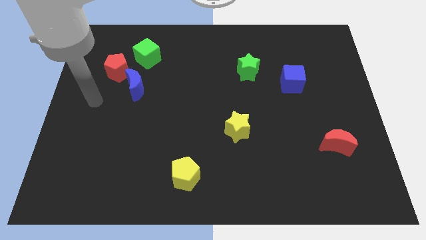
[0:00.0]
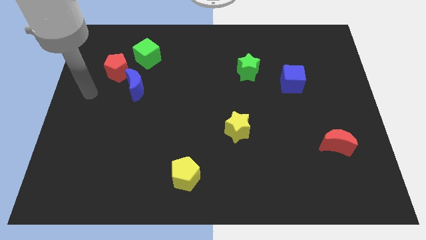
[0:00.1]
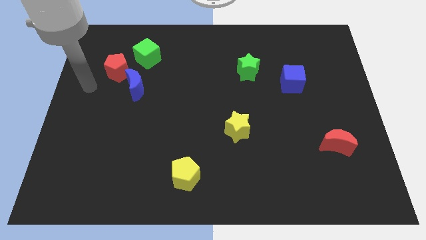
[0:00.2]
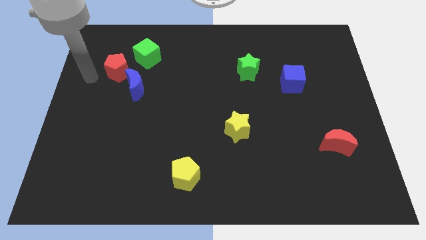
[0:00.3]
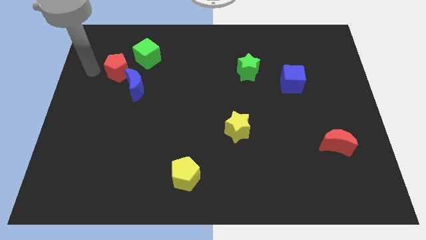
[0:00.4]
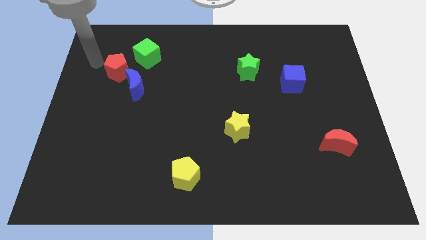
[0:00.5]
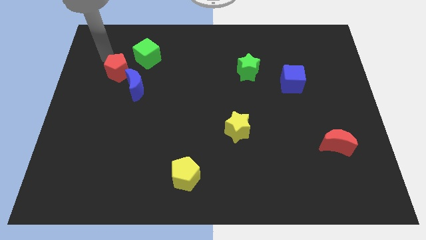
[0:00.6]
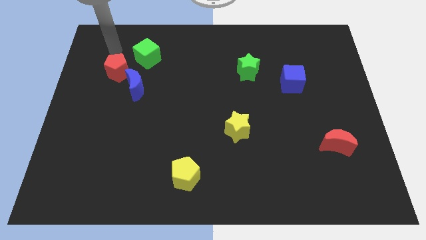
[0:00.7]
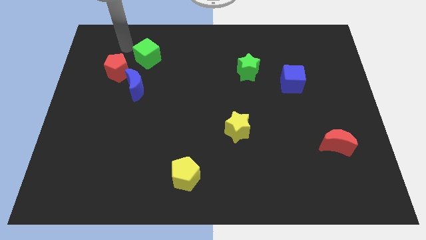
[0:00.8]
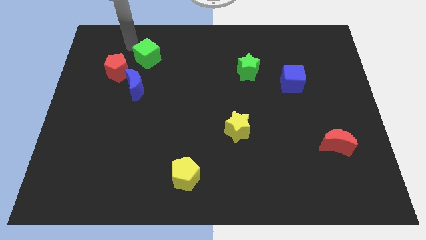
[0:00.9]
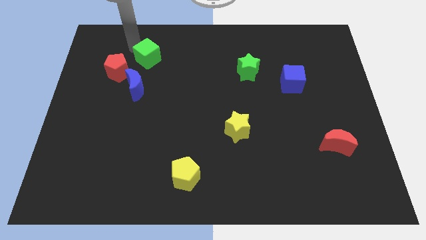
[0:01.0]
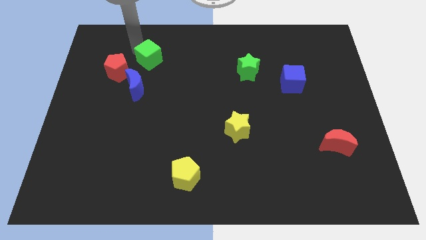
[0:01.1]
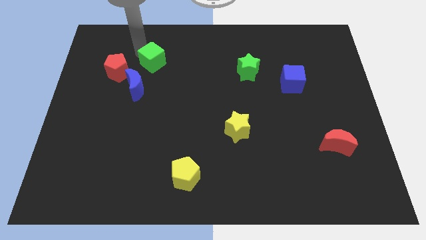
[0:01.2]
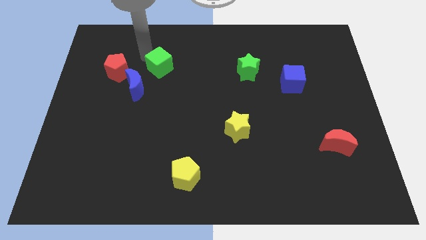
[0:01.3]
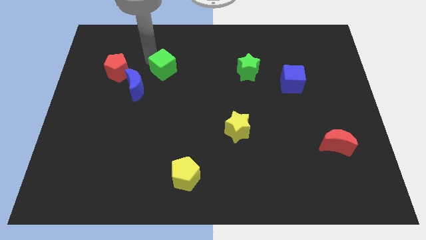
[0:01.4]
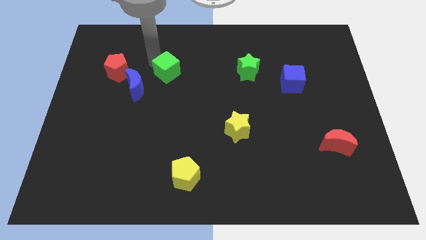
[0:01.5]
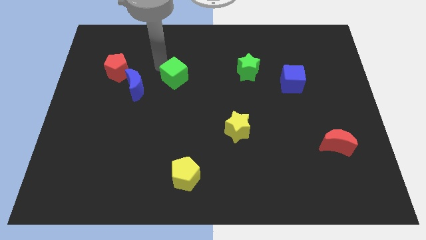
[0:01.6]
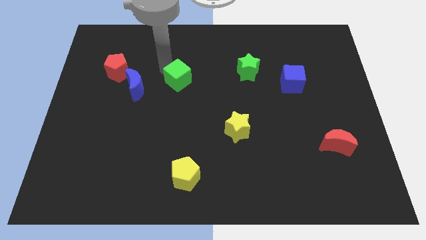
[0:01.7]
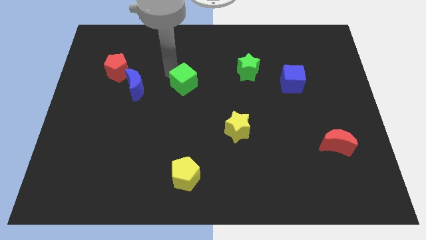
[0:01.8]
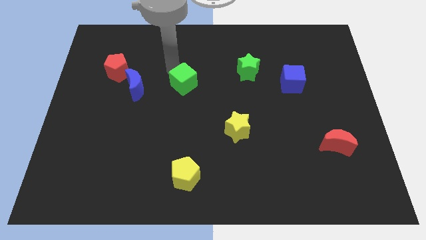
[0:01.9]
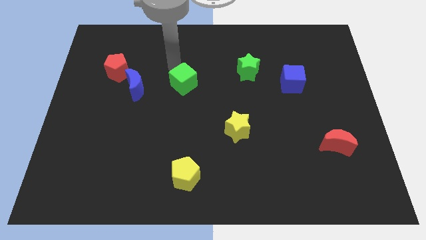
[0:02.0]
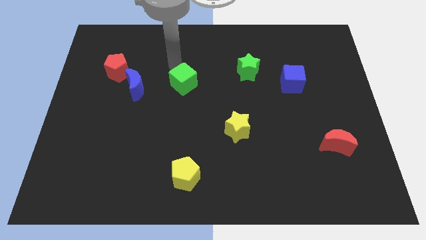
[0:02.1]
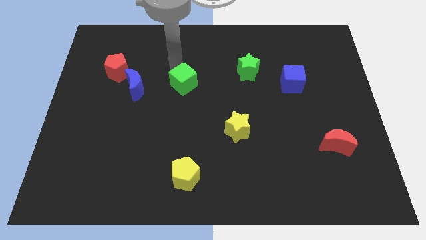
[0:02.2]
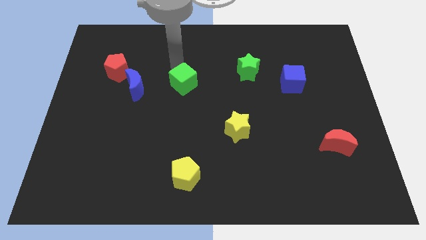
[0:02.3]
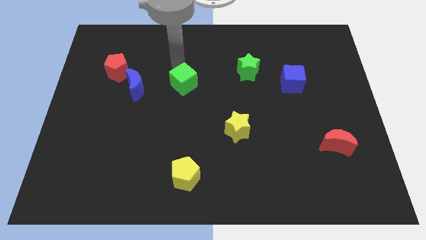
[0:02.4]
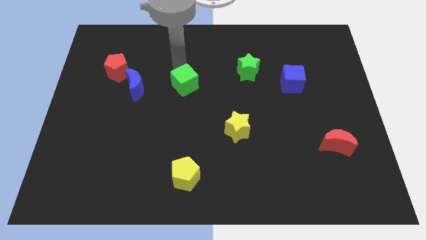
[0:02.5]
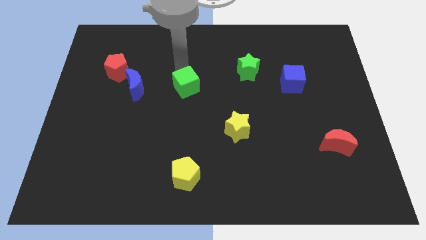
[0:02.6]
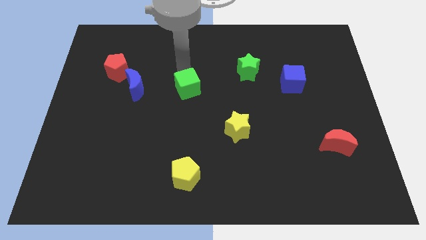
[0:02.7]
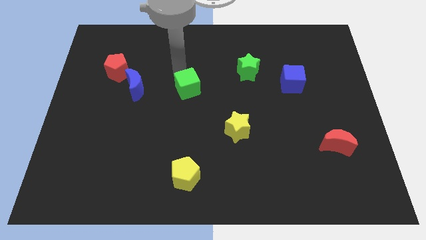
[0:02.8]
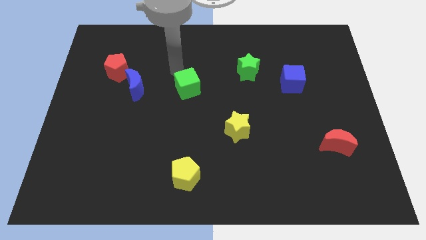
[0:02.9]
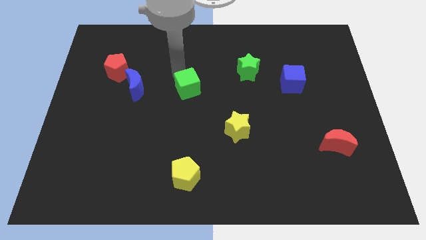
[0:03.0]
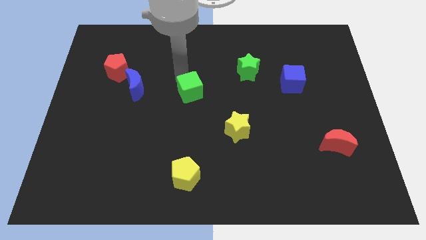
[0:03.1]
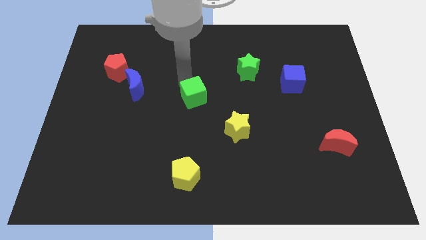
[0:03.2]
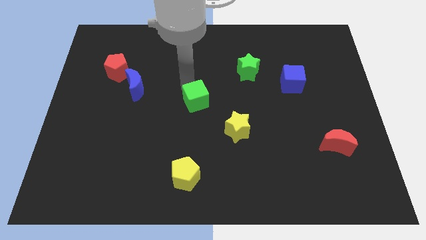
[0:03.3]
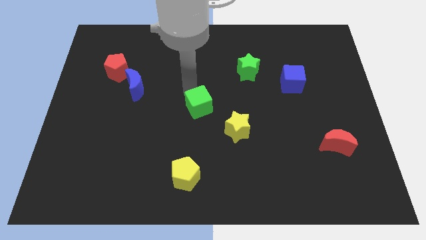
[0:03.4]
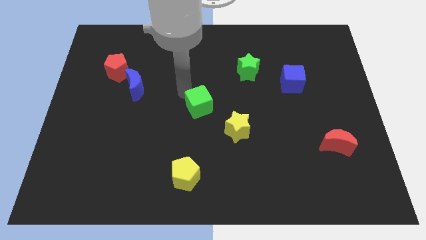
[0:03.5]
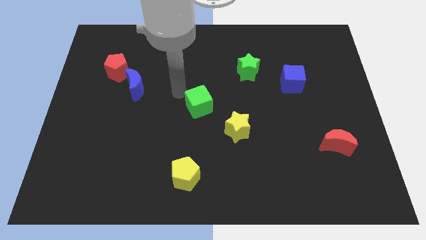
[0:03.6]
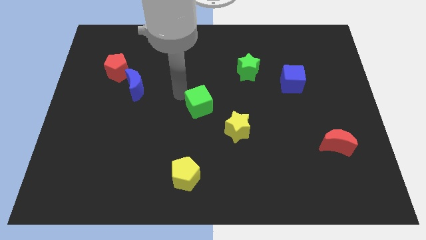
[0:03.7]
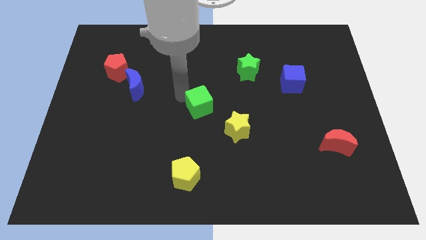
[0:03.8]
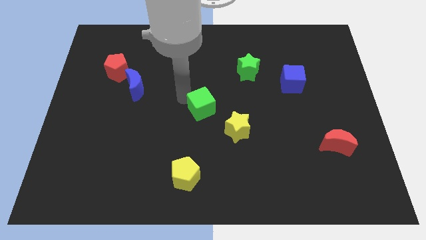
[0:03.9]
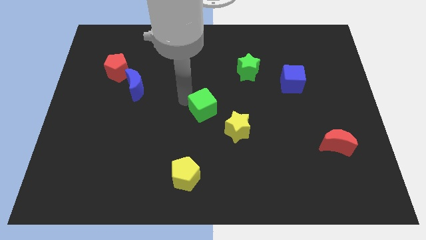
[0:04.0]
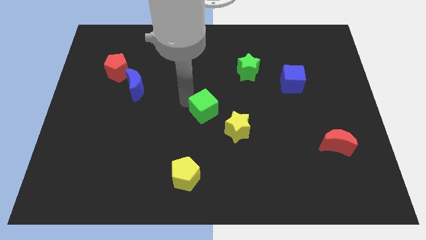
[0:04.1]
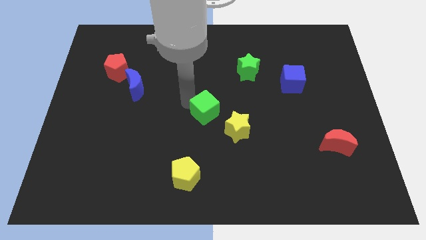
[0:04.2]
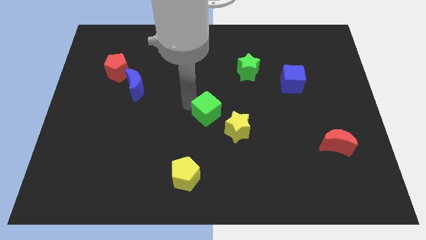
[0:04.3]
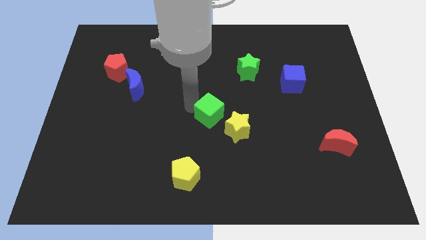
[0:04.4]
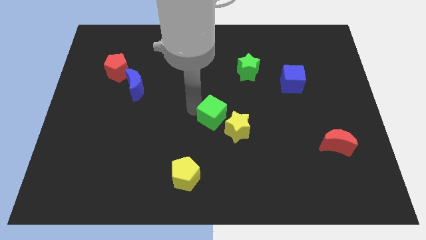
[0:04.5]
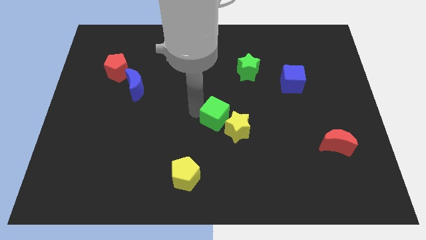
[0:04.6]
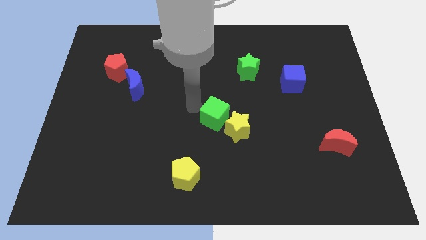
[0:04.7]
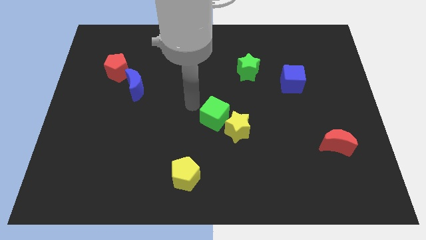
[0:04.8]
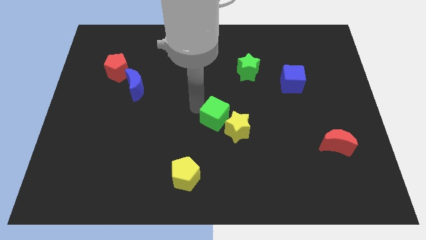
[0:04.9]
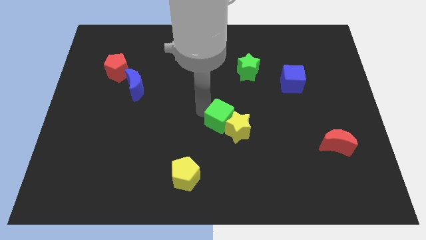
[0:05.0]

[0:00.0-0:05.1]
push the green cube next to the yellow star

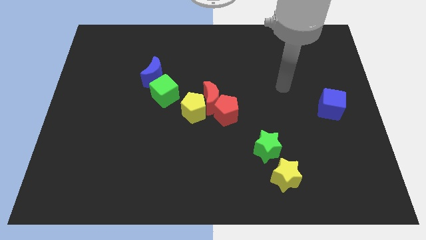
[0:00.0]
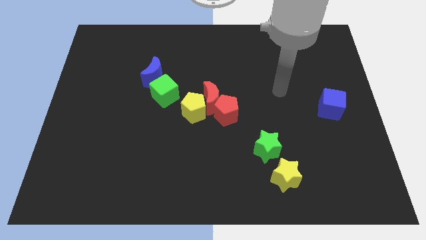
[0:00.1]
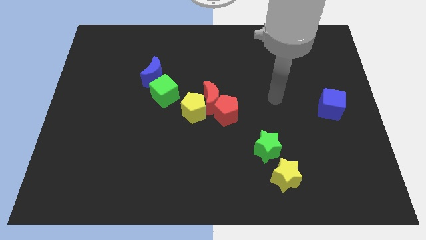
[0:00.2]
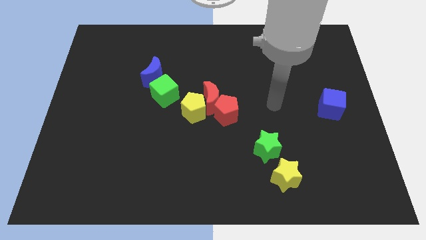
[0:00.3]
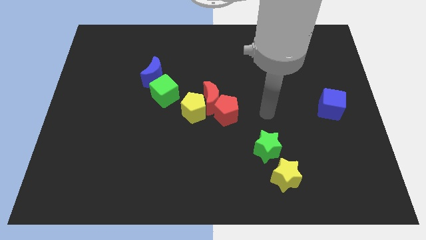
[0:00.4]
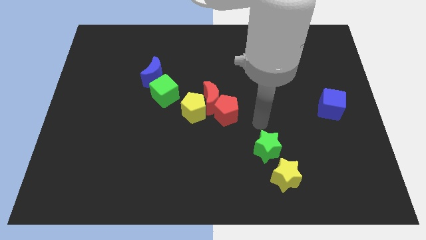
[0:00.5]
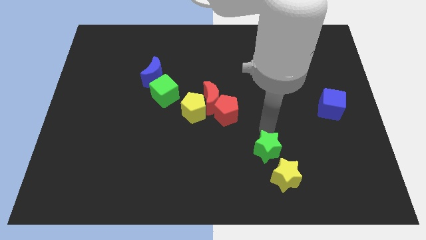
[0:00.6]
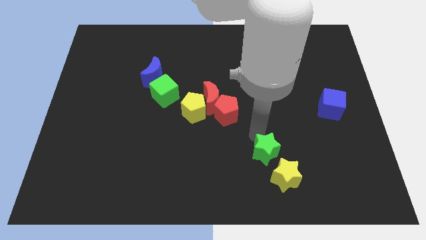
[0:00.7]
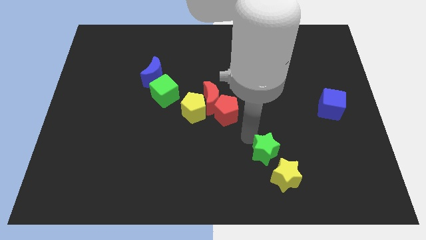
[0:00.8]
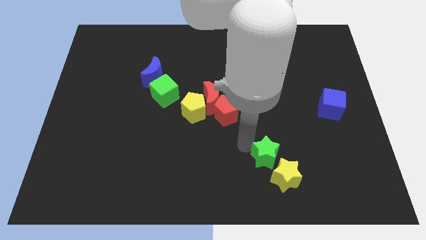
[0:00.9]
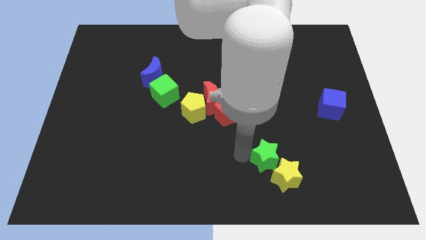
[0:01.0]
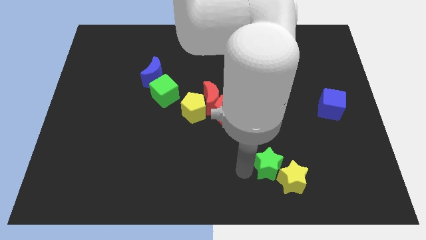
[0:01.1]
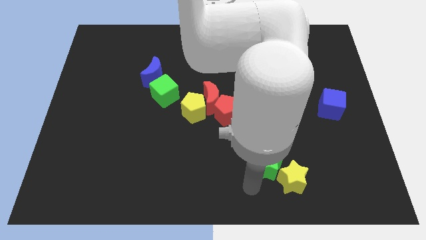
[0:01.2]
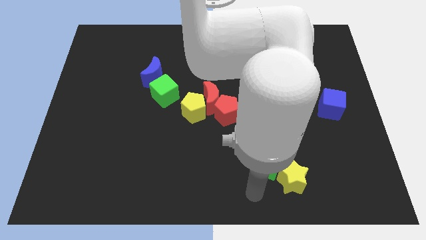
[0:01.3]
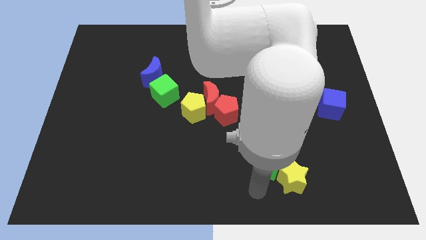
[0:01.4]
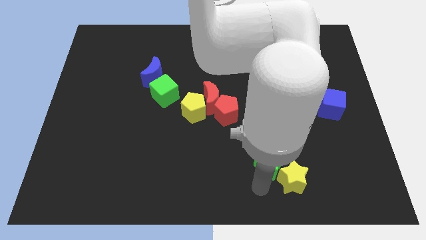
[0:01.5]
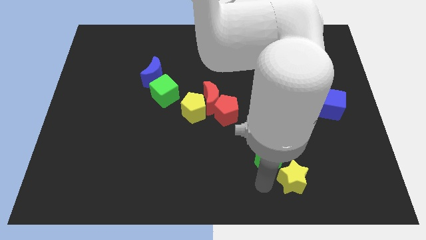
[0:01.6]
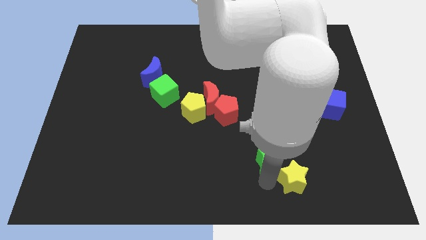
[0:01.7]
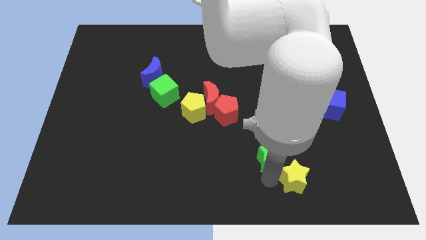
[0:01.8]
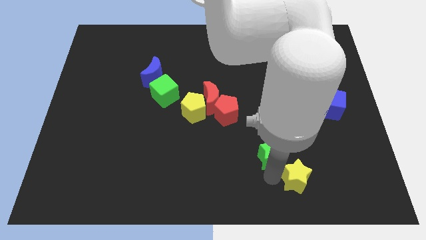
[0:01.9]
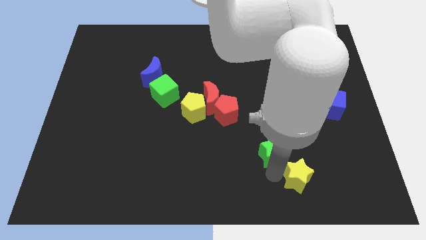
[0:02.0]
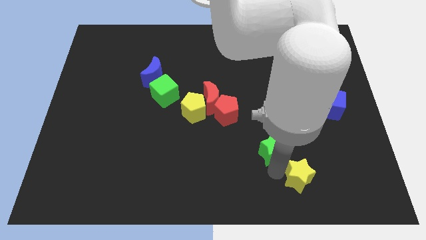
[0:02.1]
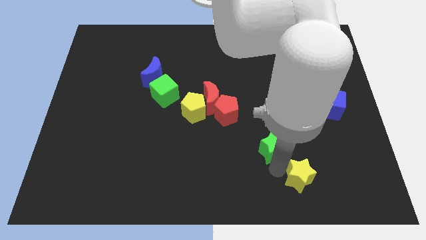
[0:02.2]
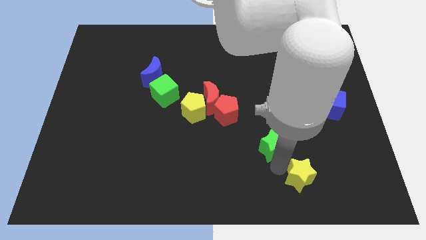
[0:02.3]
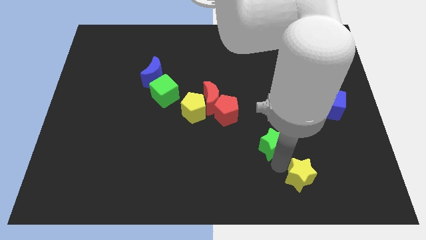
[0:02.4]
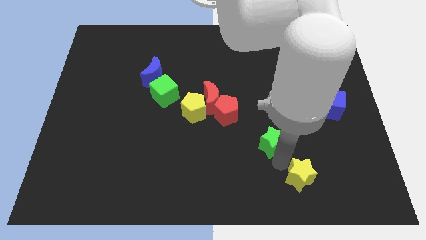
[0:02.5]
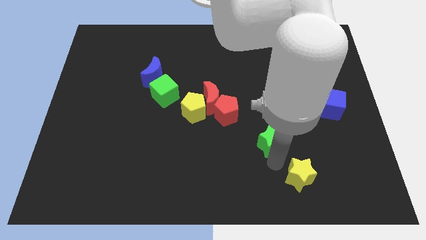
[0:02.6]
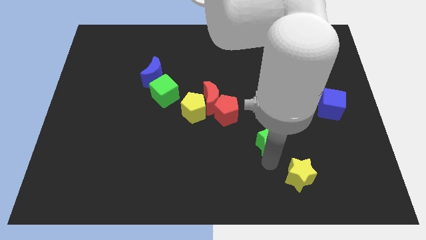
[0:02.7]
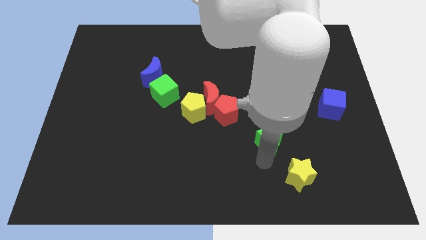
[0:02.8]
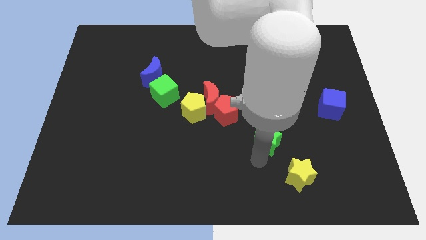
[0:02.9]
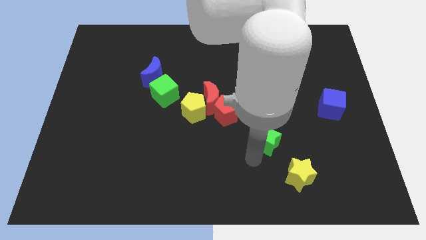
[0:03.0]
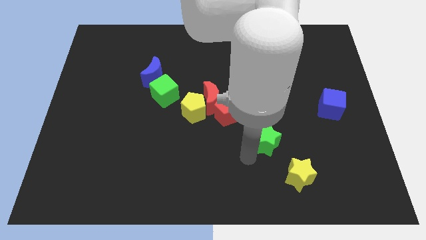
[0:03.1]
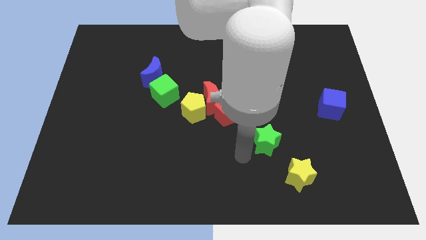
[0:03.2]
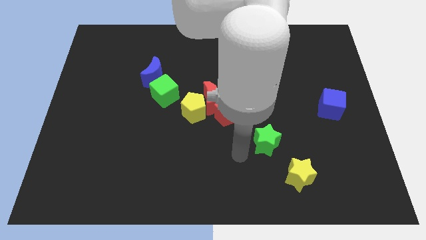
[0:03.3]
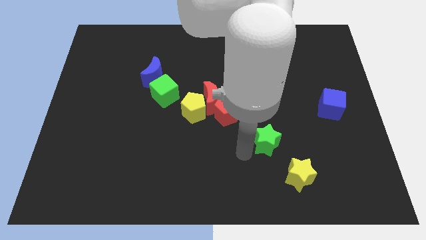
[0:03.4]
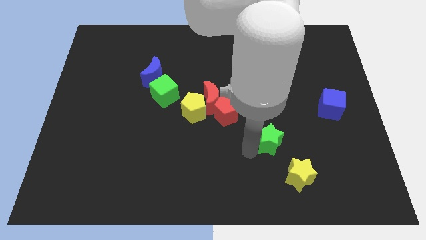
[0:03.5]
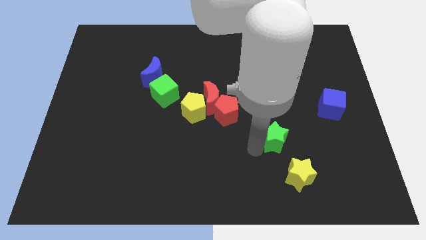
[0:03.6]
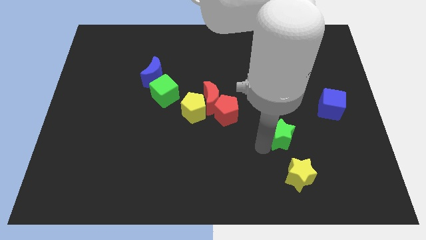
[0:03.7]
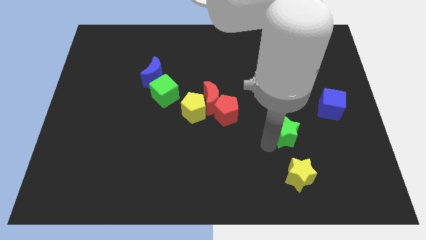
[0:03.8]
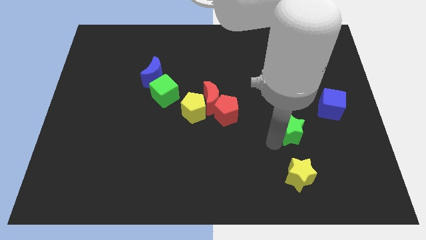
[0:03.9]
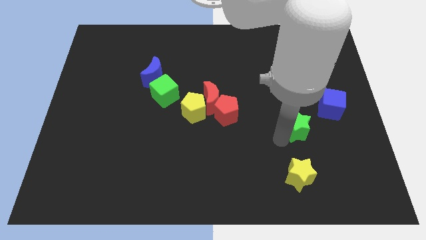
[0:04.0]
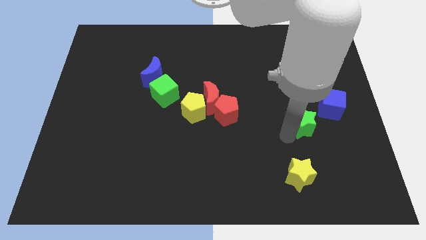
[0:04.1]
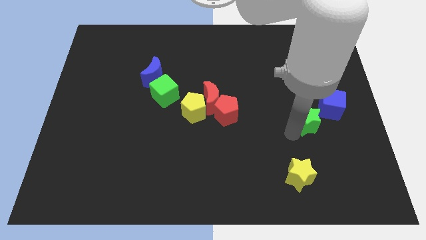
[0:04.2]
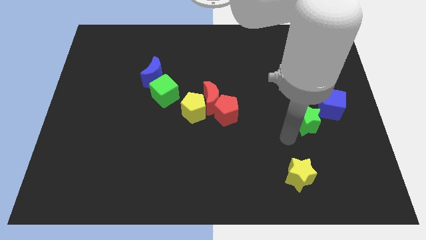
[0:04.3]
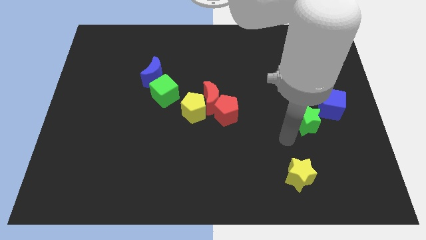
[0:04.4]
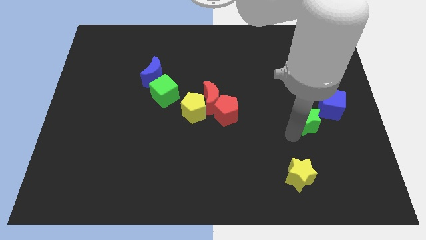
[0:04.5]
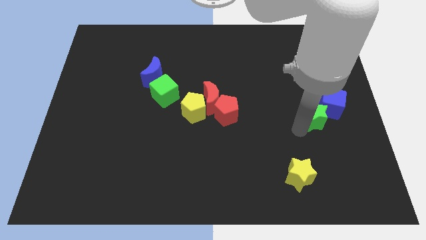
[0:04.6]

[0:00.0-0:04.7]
put the green star next to the blue cube
